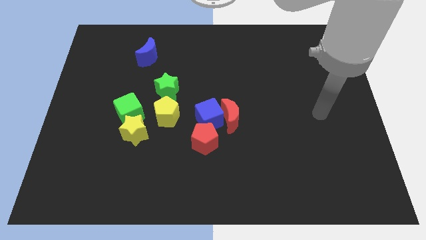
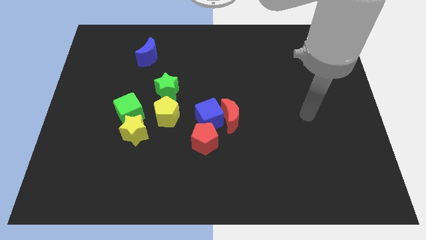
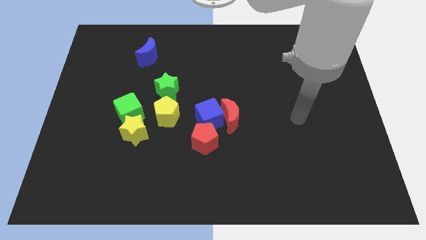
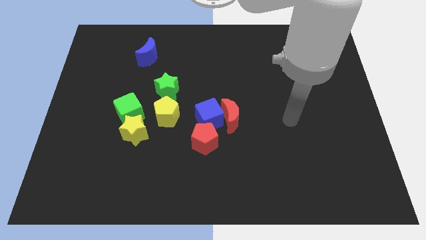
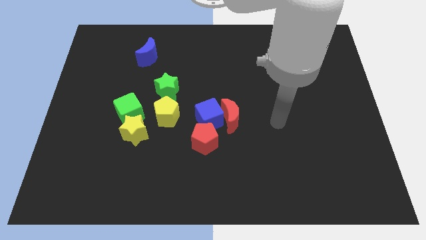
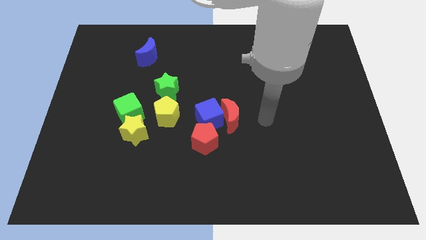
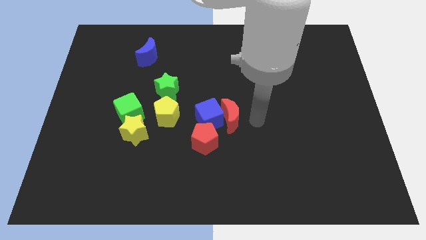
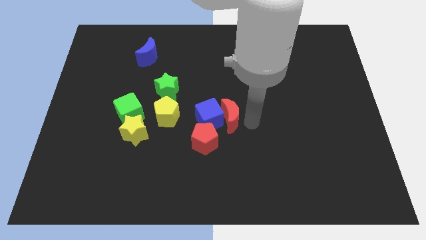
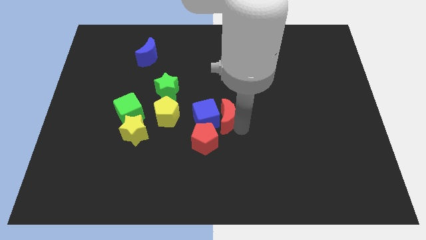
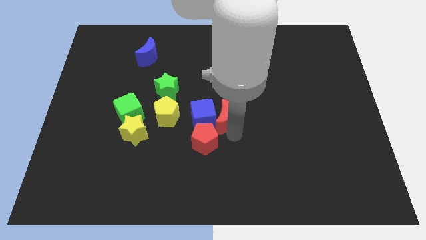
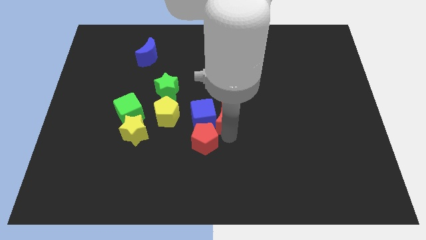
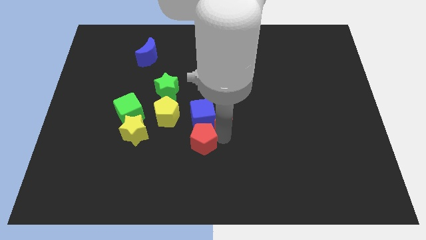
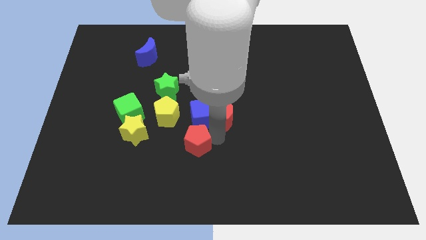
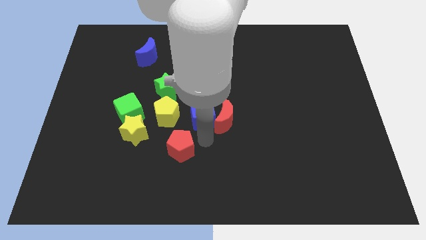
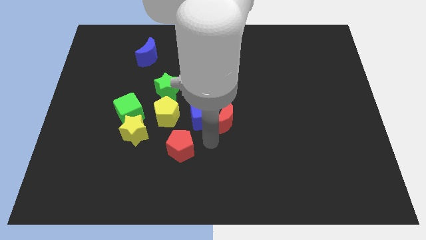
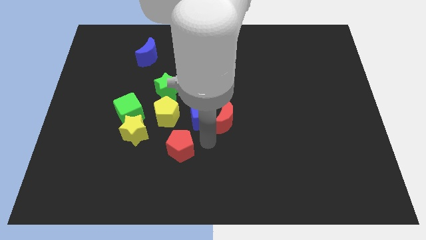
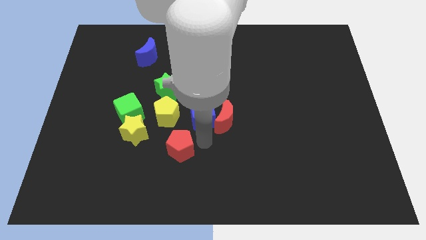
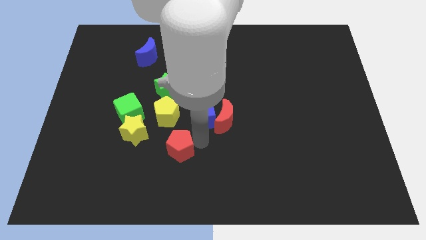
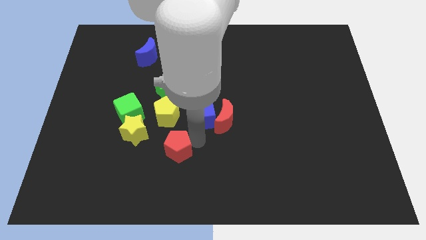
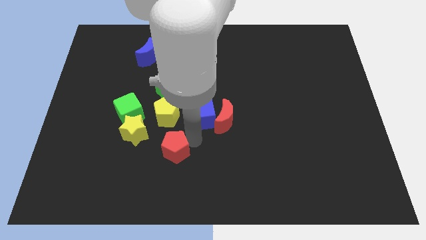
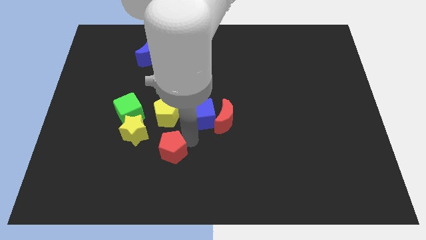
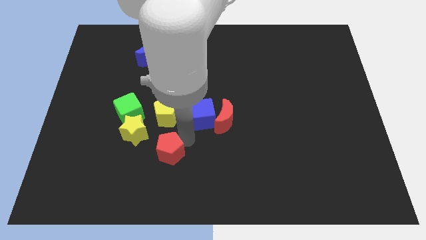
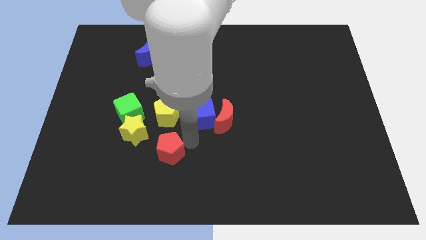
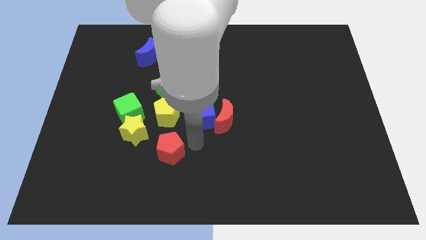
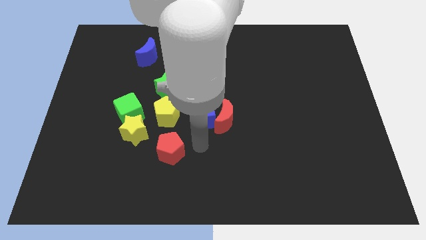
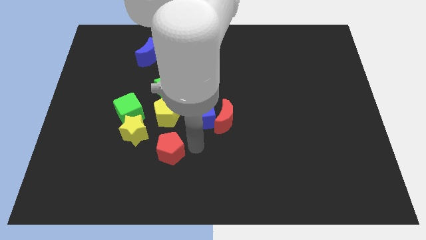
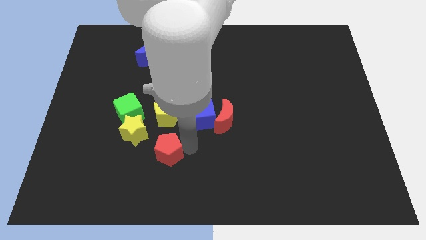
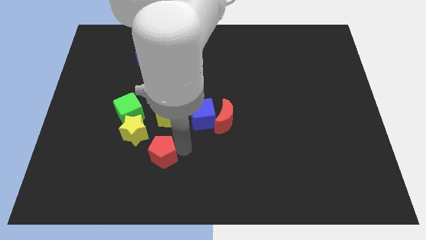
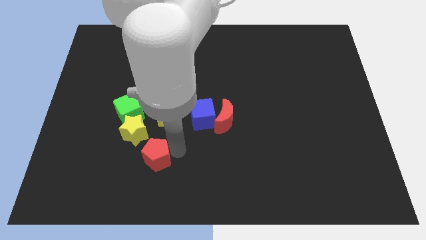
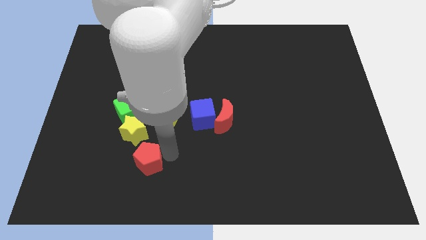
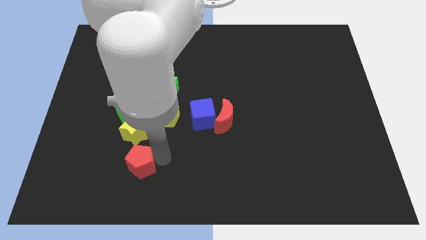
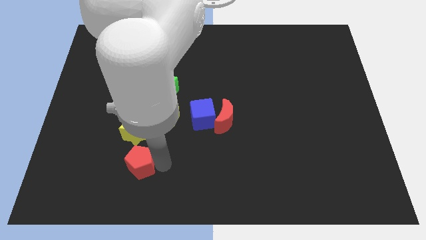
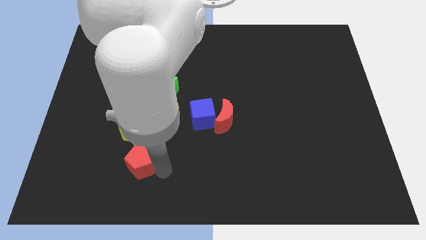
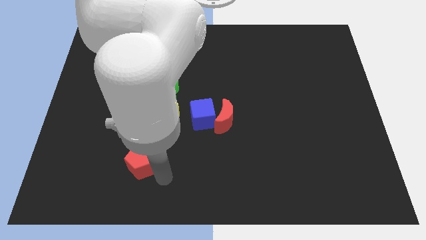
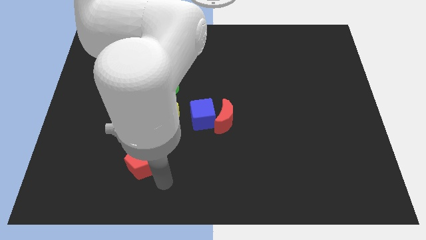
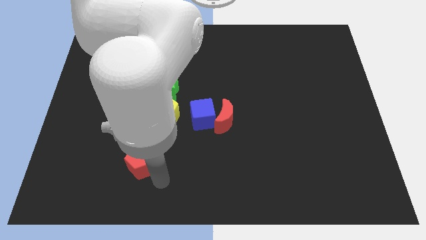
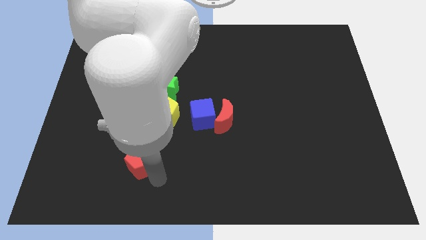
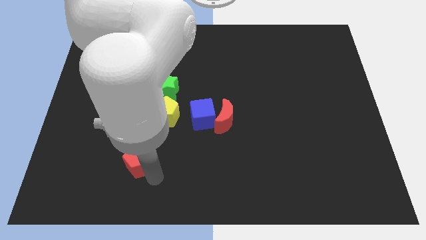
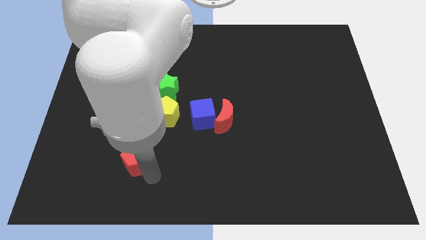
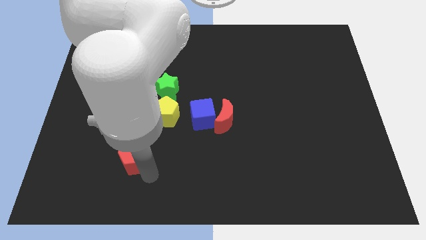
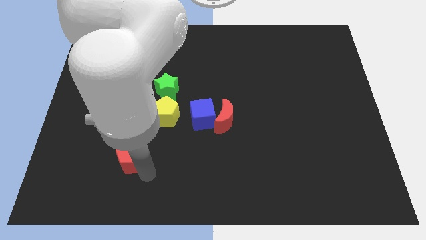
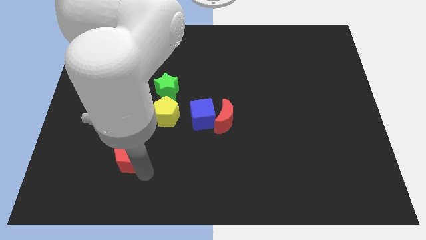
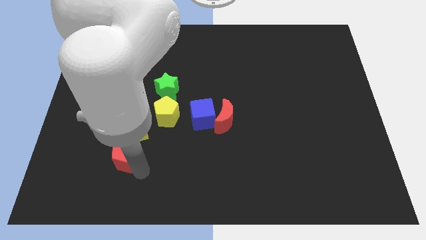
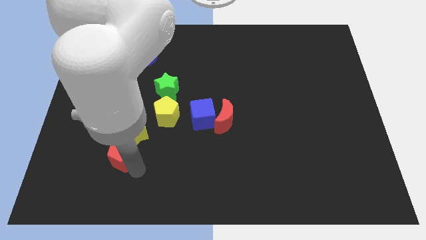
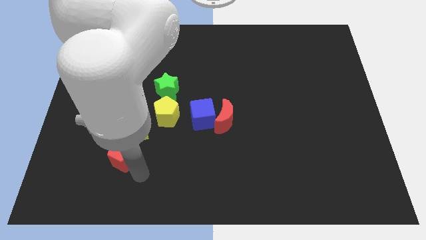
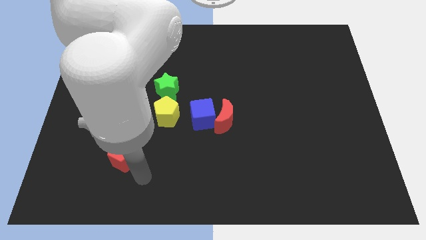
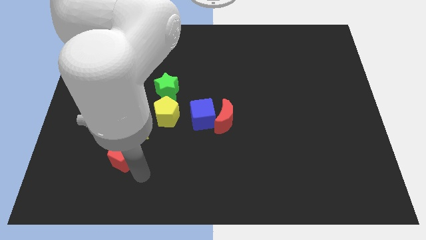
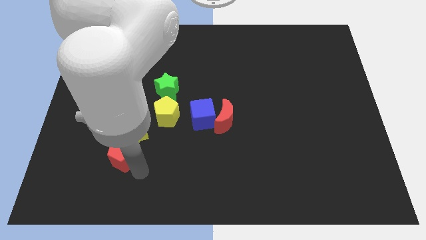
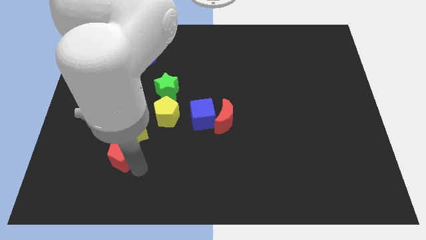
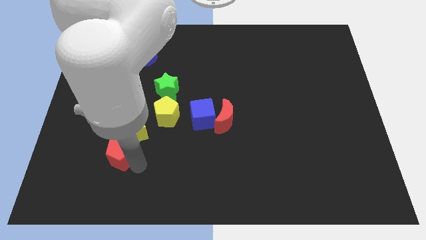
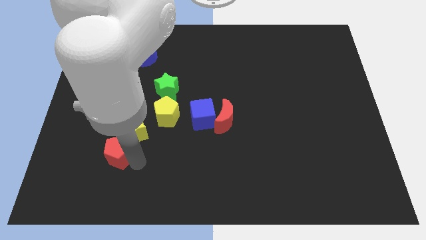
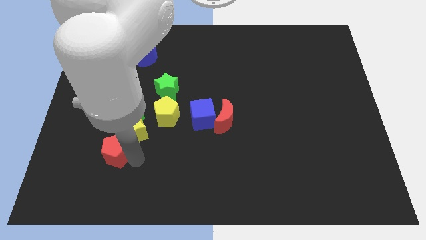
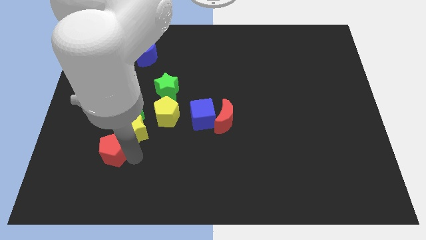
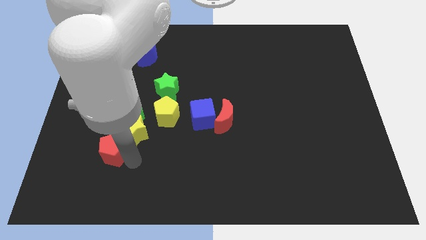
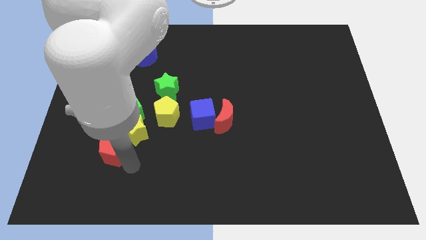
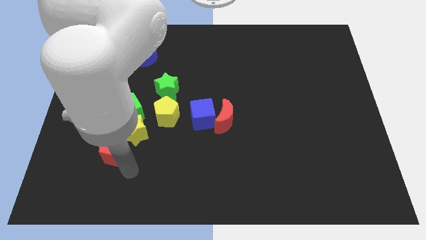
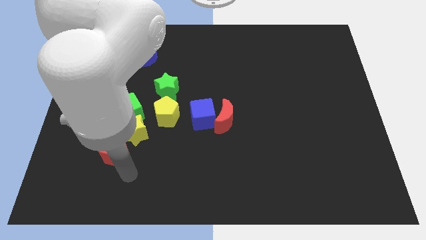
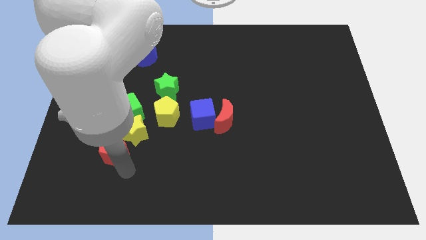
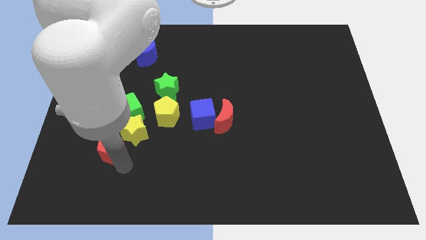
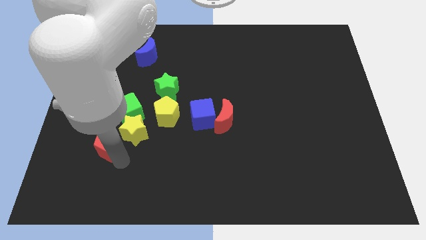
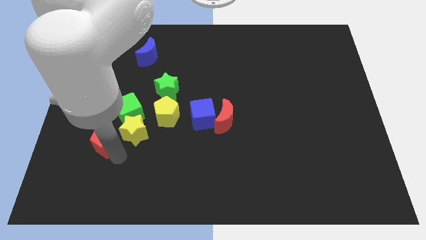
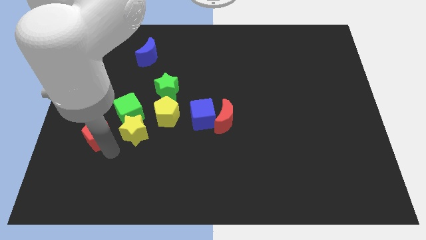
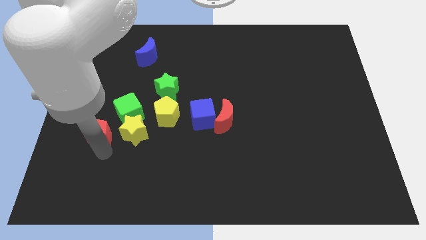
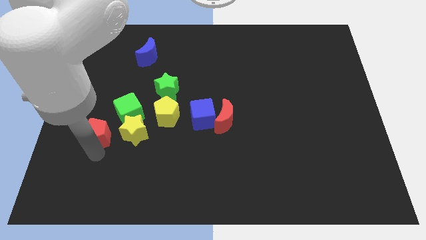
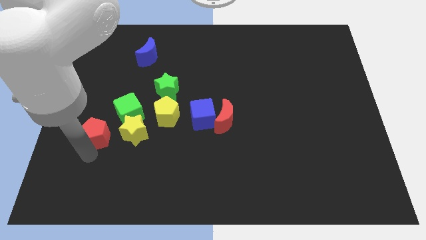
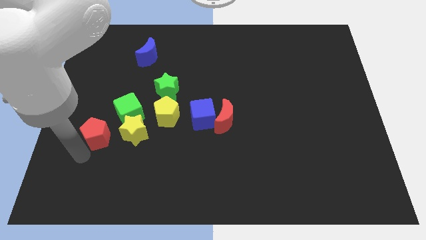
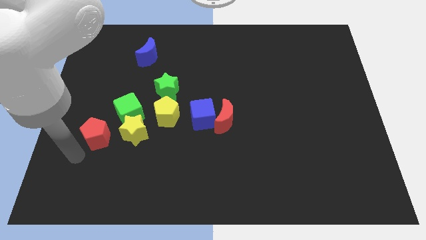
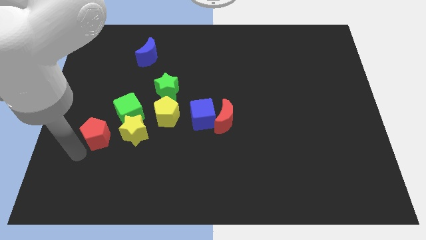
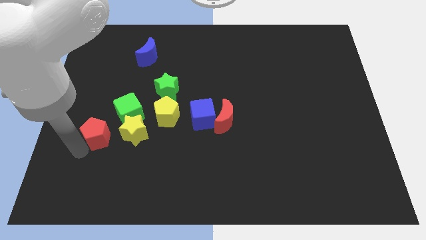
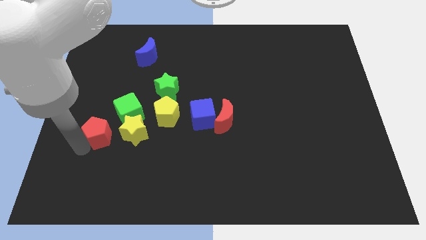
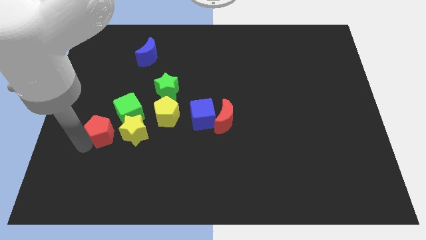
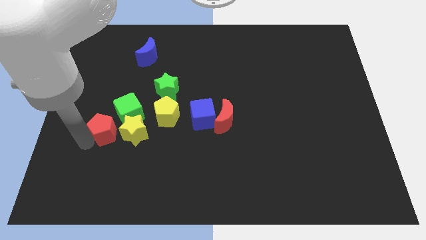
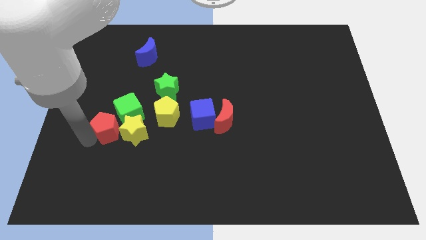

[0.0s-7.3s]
push the red pentagon to the left side of the yellow pentagon
